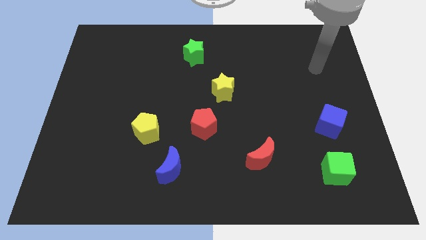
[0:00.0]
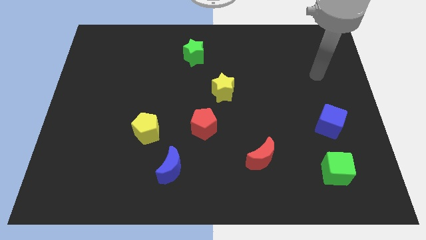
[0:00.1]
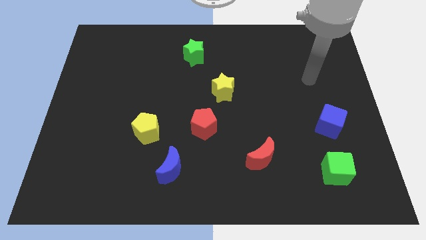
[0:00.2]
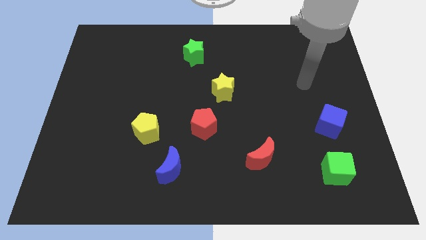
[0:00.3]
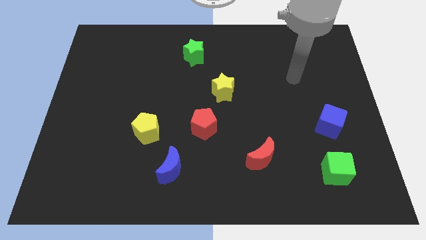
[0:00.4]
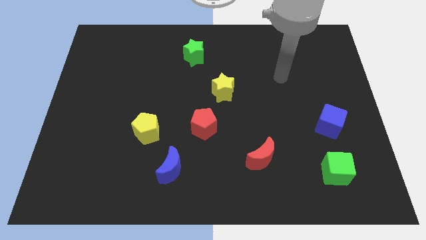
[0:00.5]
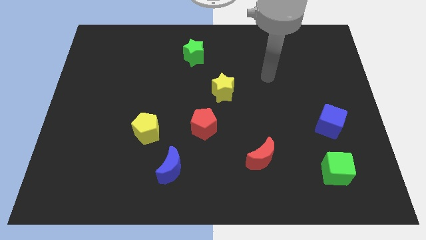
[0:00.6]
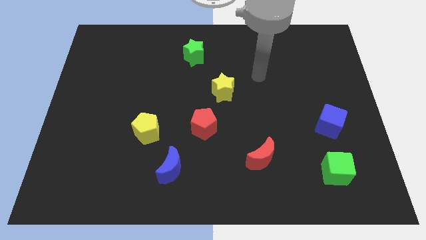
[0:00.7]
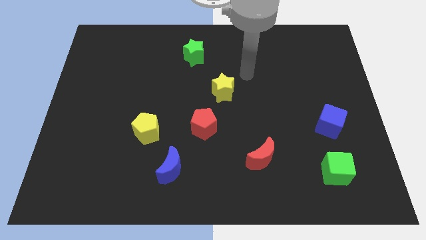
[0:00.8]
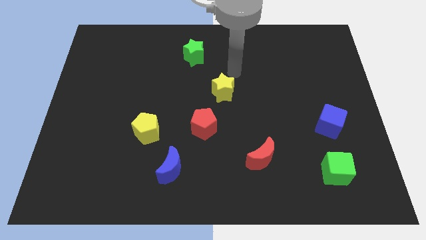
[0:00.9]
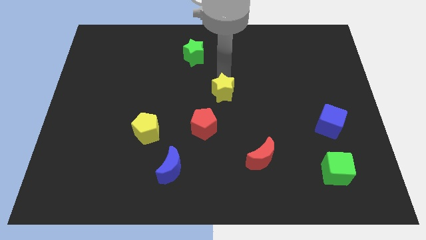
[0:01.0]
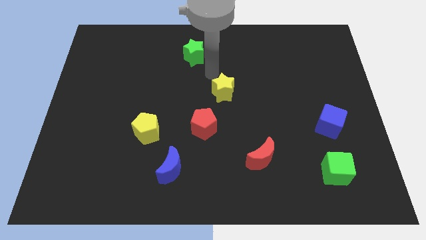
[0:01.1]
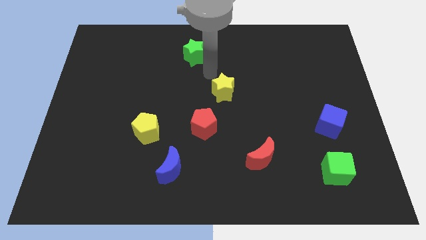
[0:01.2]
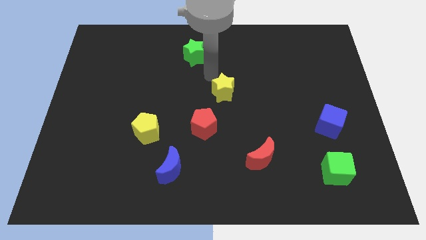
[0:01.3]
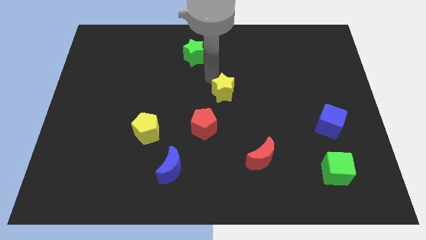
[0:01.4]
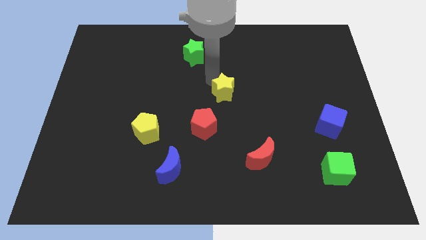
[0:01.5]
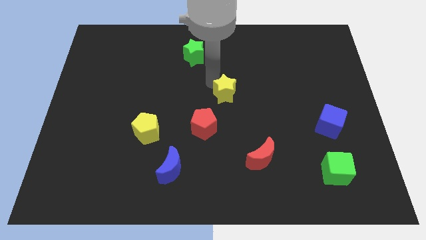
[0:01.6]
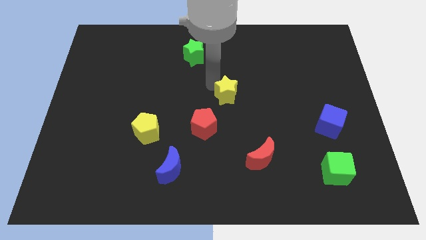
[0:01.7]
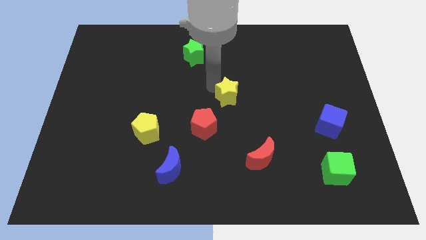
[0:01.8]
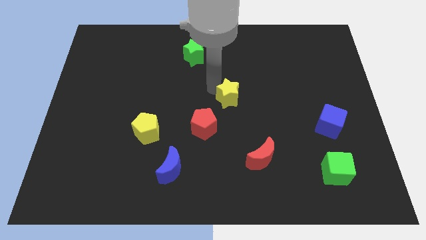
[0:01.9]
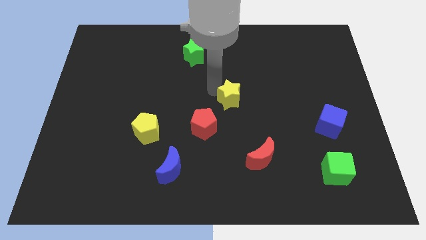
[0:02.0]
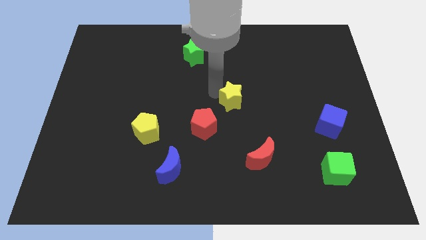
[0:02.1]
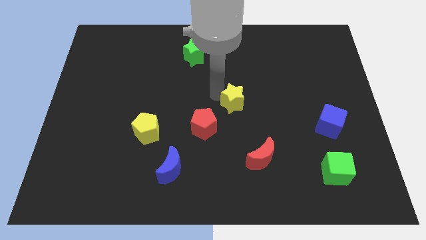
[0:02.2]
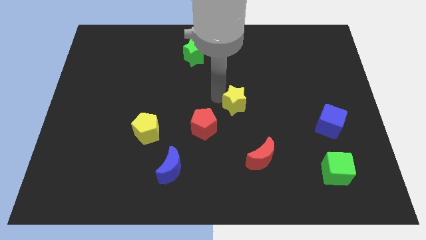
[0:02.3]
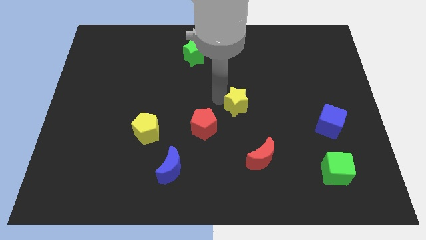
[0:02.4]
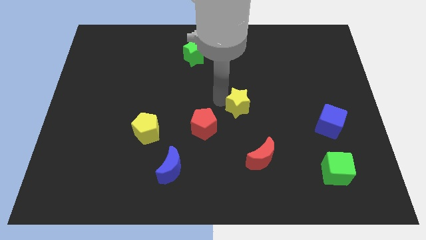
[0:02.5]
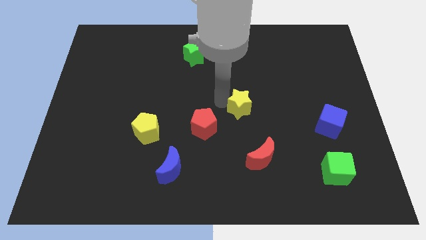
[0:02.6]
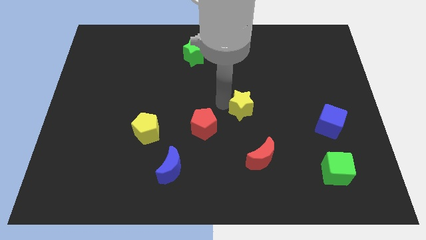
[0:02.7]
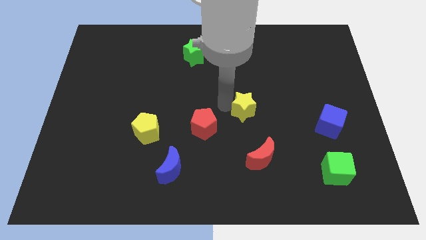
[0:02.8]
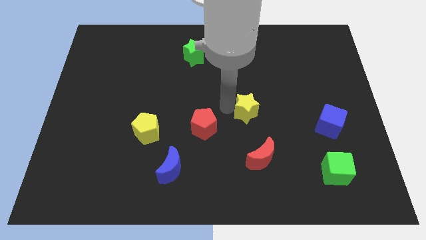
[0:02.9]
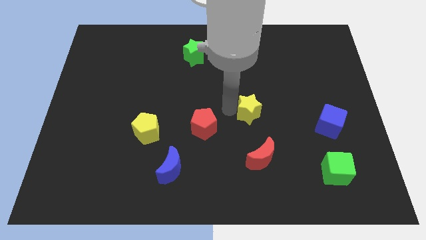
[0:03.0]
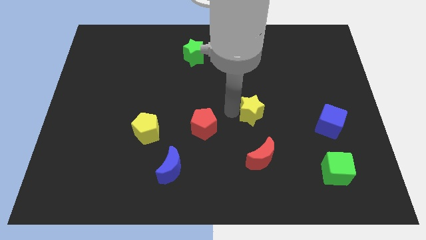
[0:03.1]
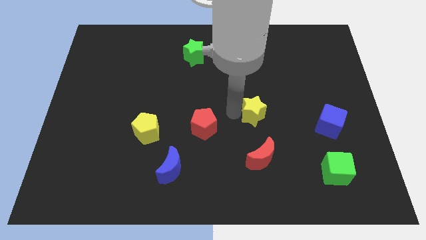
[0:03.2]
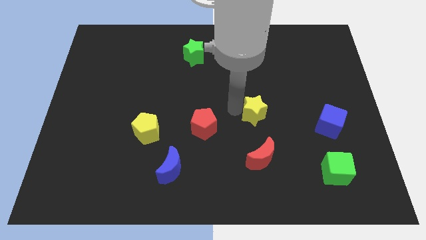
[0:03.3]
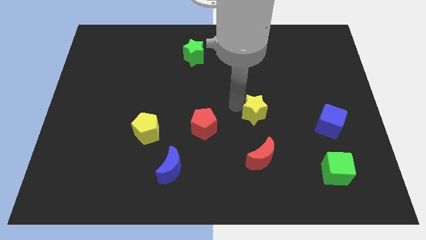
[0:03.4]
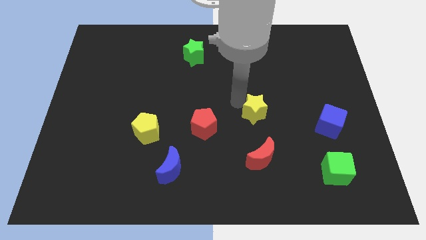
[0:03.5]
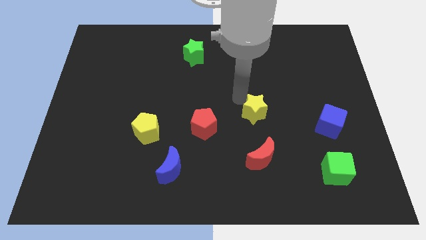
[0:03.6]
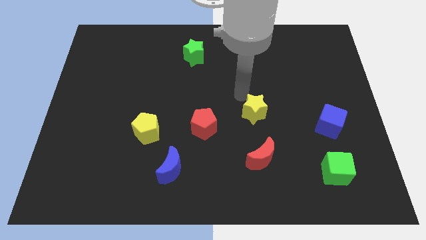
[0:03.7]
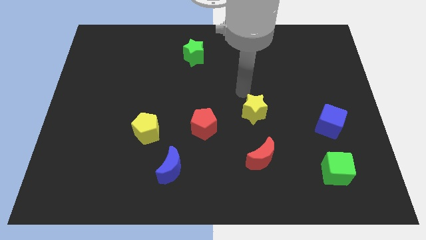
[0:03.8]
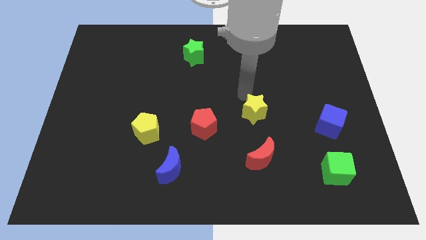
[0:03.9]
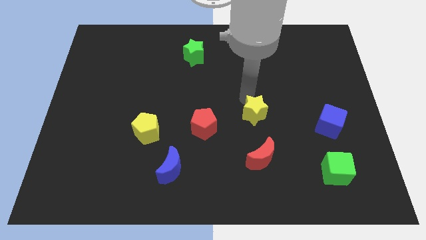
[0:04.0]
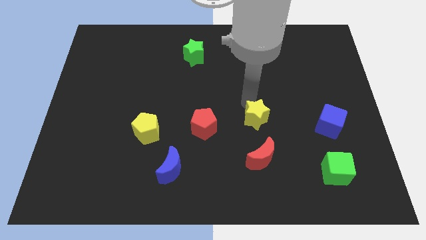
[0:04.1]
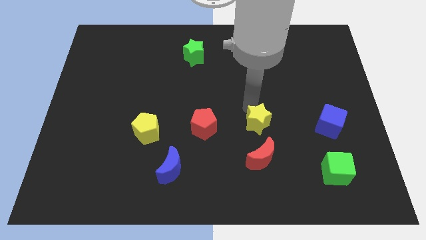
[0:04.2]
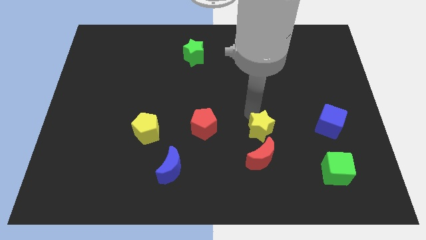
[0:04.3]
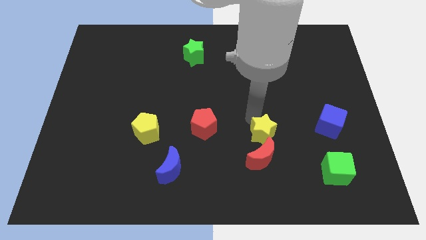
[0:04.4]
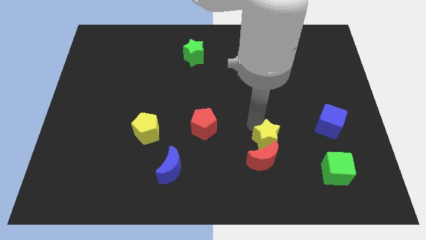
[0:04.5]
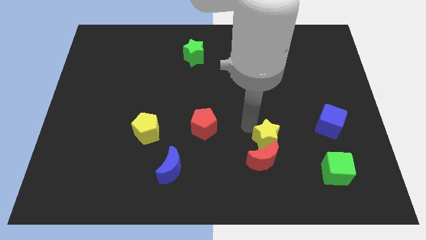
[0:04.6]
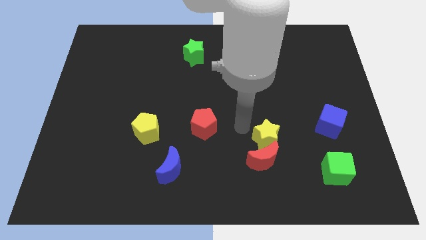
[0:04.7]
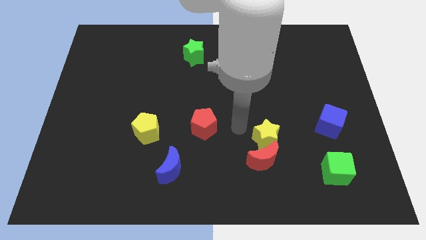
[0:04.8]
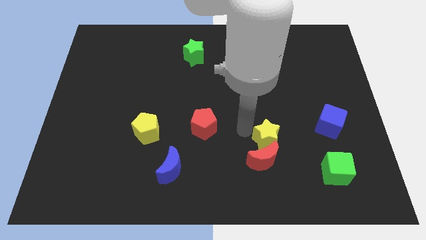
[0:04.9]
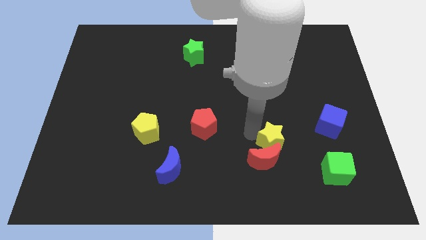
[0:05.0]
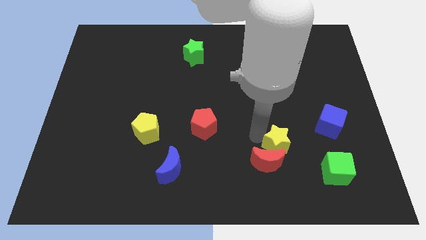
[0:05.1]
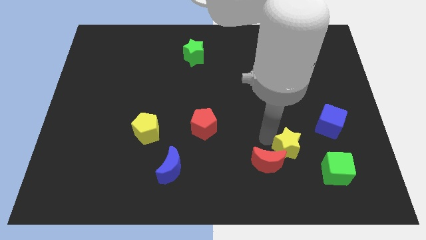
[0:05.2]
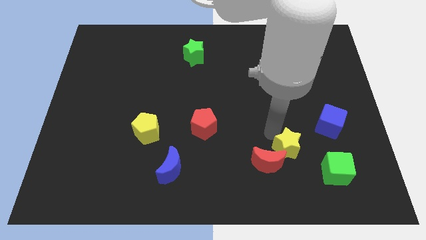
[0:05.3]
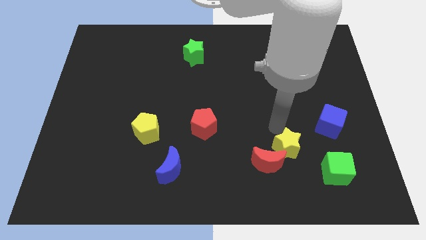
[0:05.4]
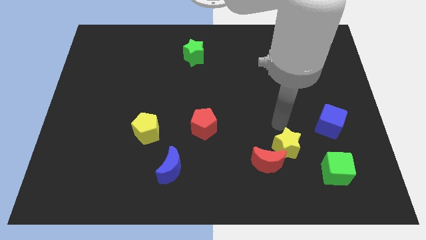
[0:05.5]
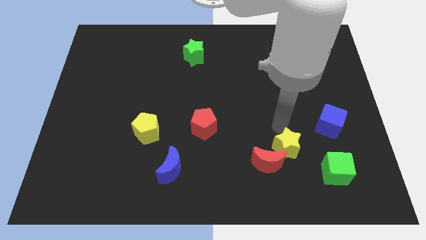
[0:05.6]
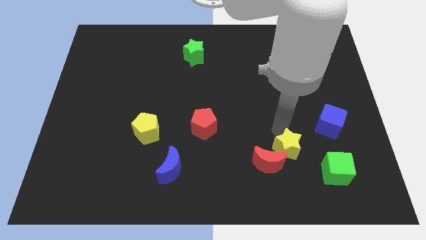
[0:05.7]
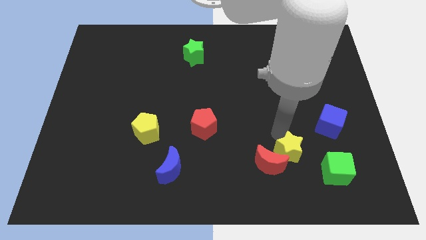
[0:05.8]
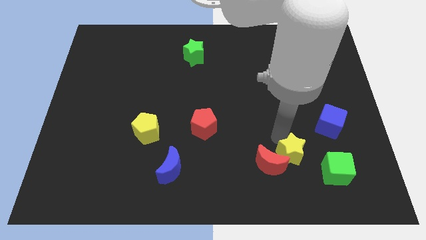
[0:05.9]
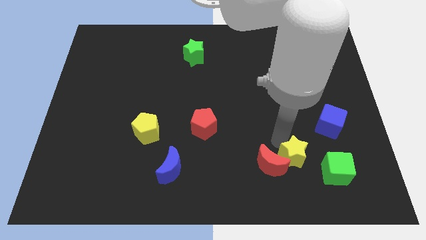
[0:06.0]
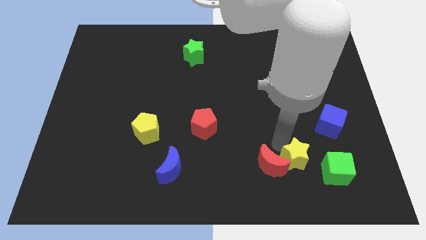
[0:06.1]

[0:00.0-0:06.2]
move the yellow star to the bottom right side of the red moon

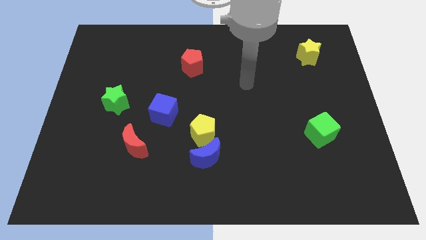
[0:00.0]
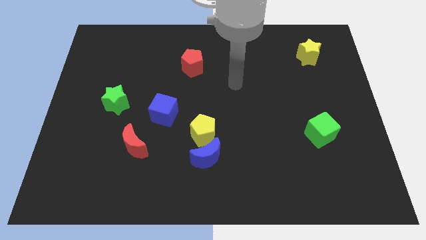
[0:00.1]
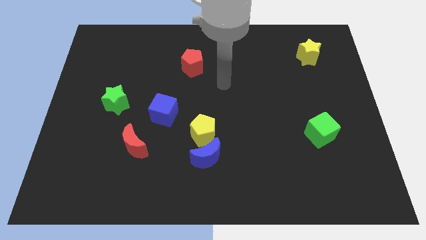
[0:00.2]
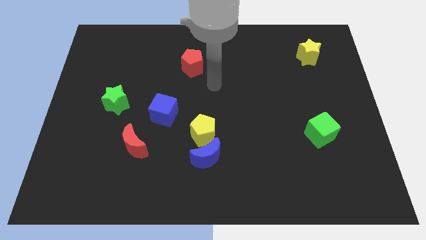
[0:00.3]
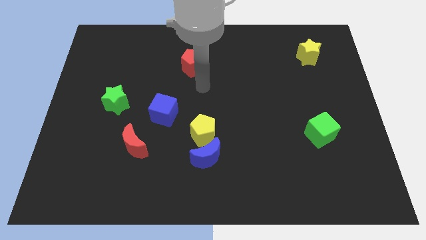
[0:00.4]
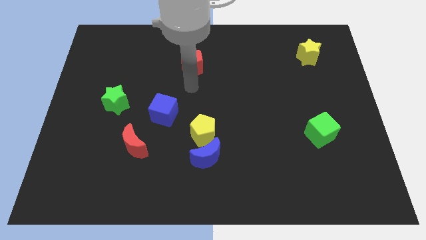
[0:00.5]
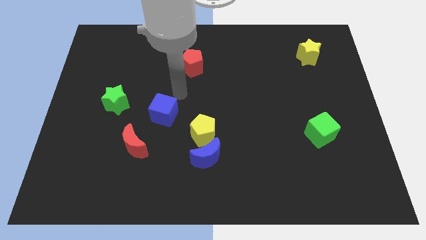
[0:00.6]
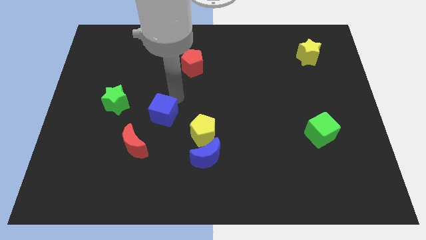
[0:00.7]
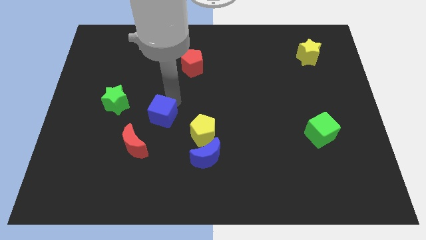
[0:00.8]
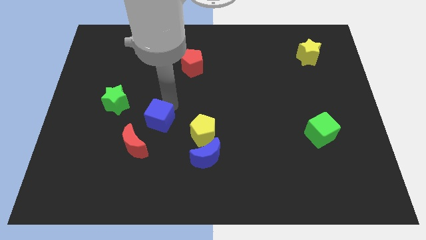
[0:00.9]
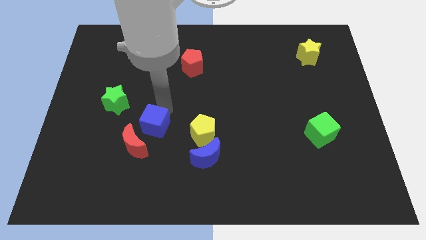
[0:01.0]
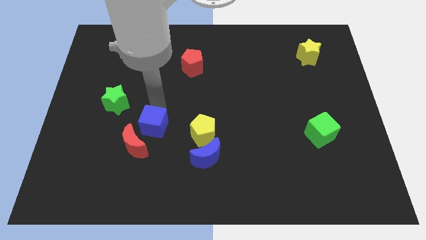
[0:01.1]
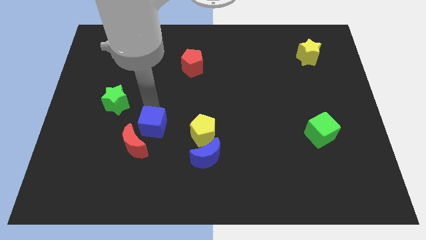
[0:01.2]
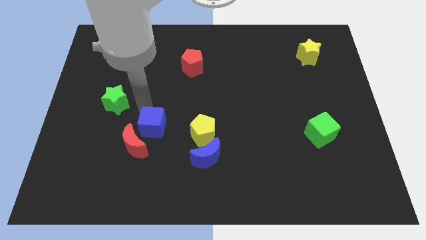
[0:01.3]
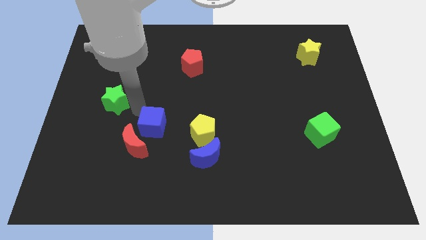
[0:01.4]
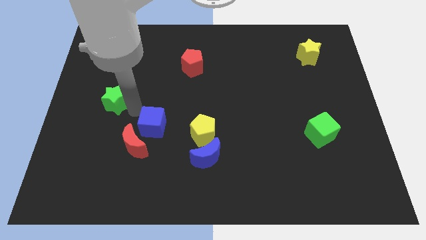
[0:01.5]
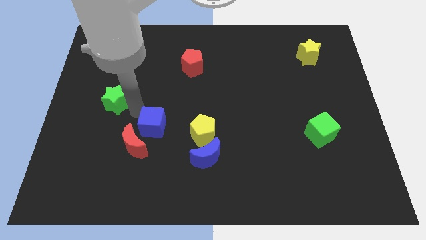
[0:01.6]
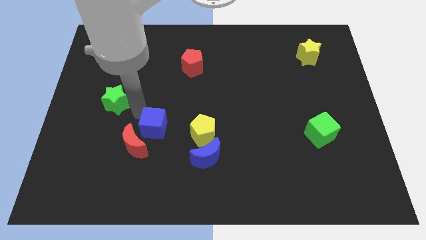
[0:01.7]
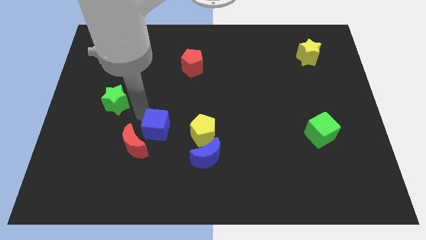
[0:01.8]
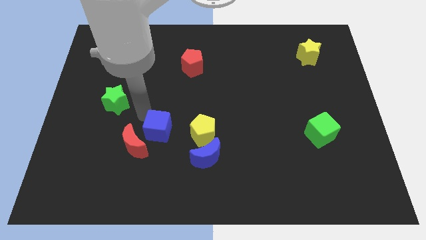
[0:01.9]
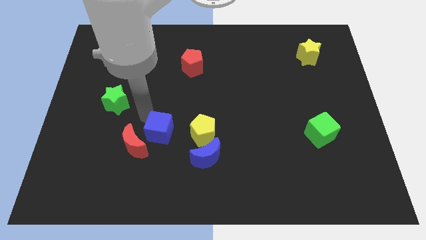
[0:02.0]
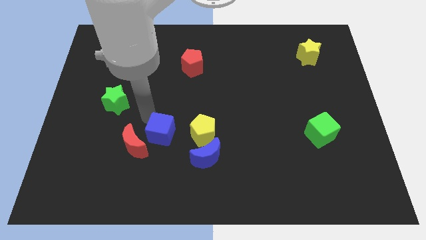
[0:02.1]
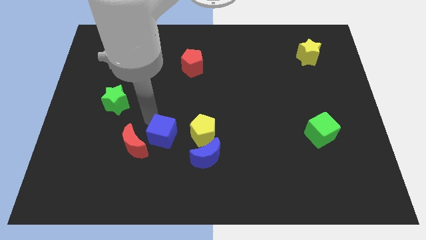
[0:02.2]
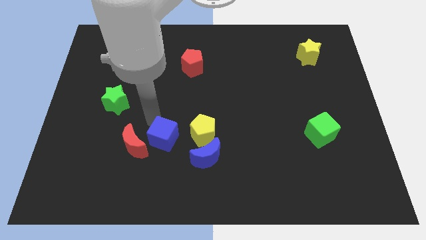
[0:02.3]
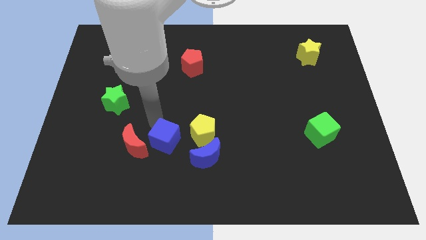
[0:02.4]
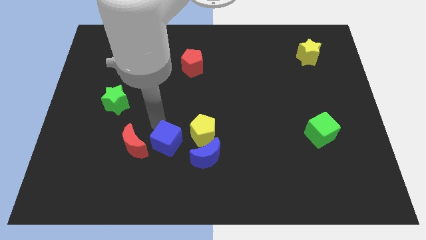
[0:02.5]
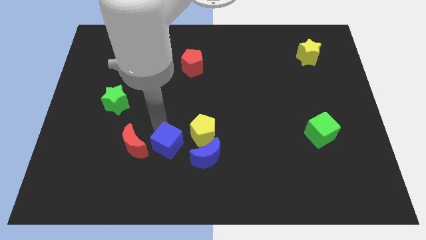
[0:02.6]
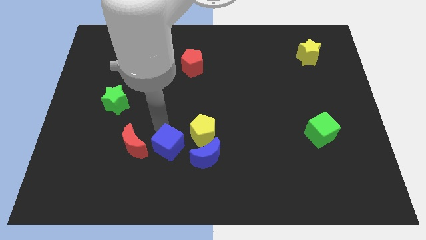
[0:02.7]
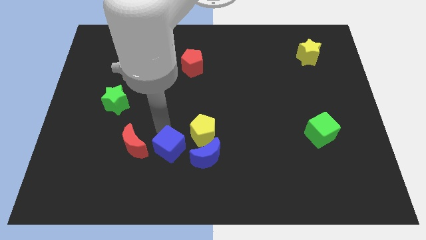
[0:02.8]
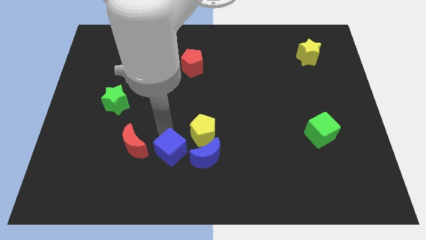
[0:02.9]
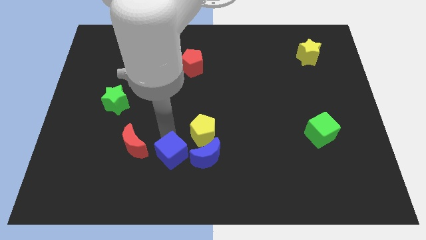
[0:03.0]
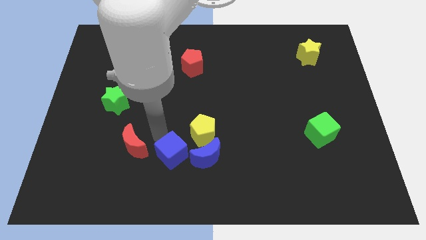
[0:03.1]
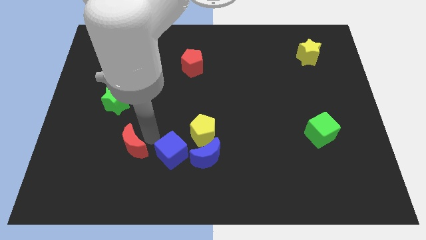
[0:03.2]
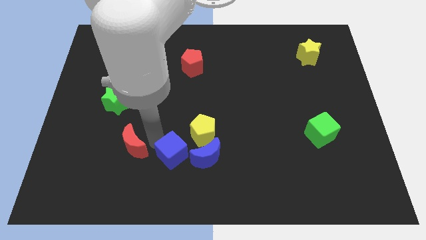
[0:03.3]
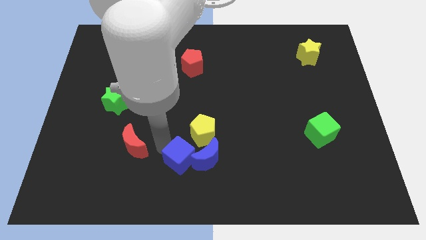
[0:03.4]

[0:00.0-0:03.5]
push the blue cube below the yellow pentagon
